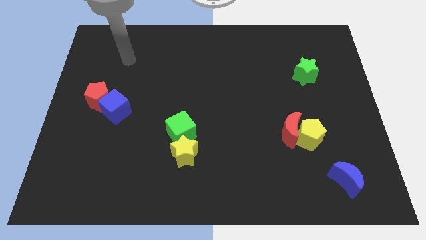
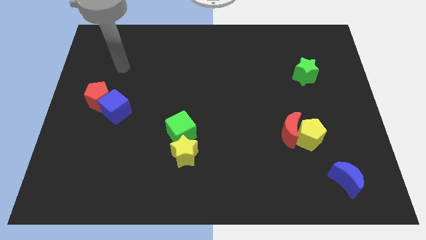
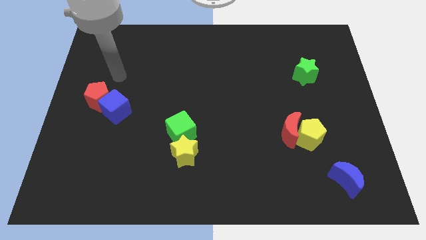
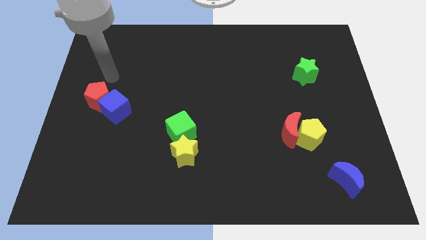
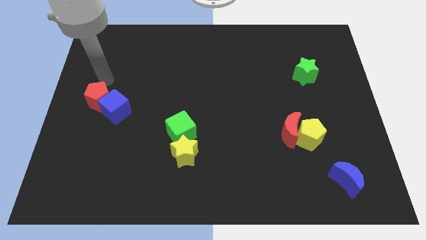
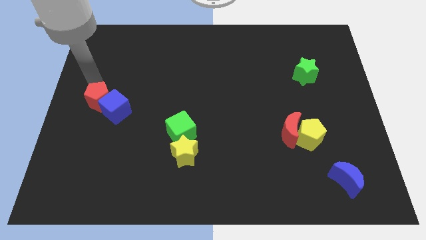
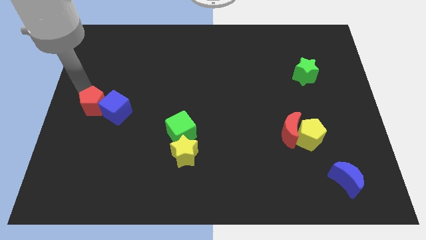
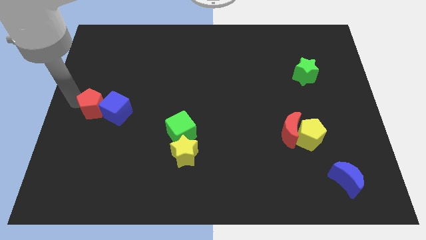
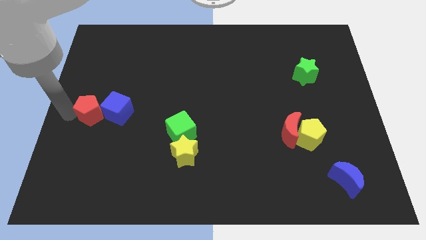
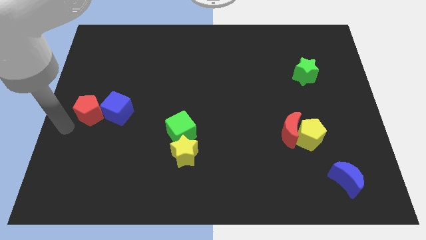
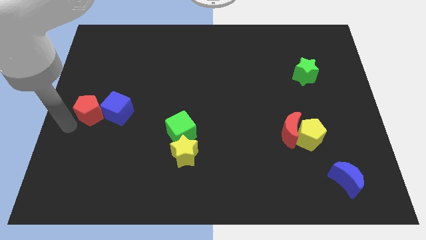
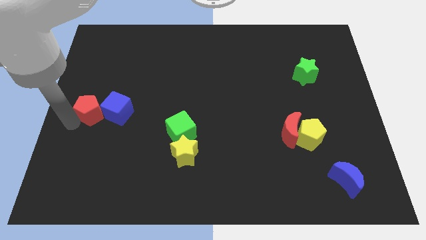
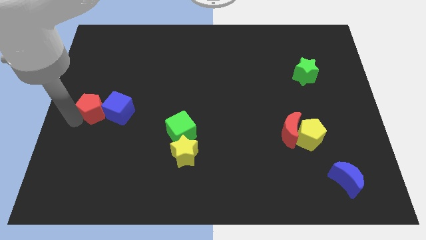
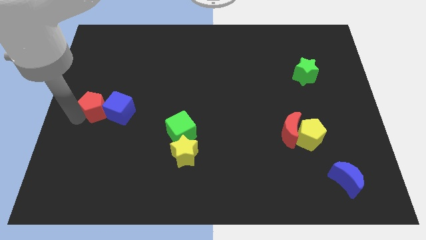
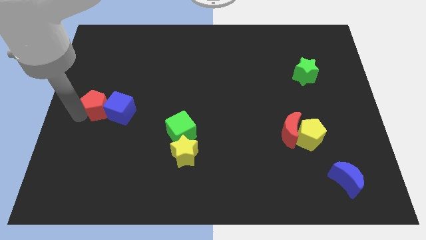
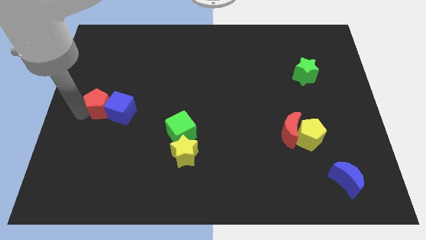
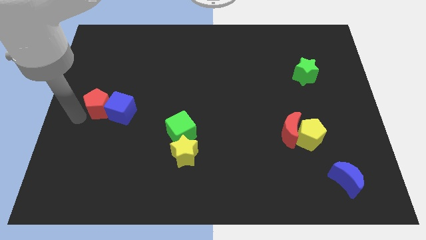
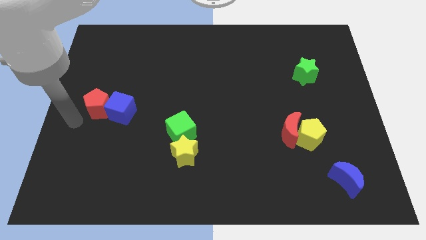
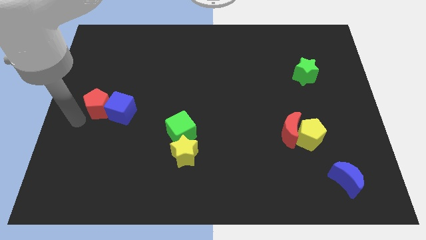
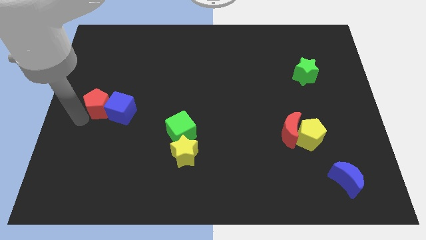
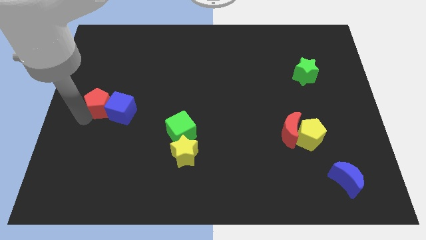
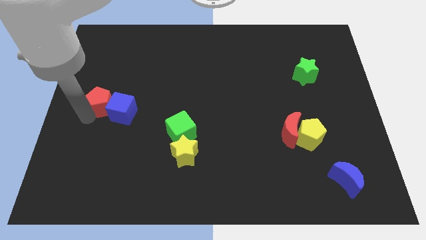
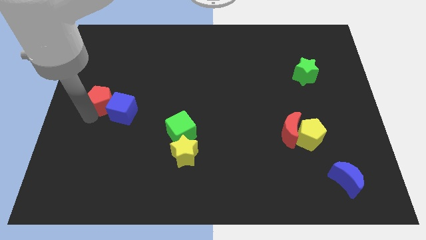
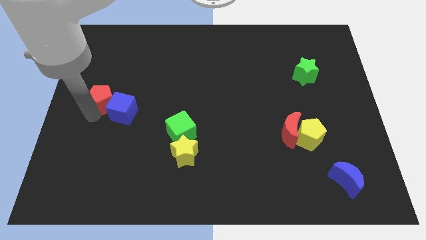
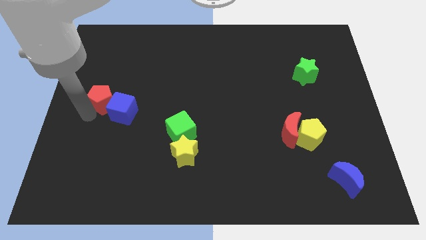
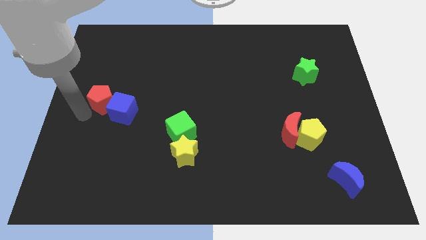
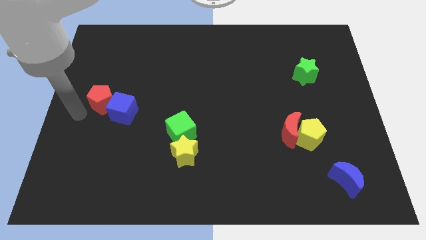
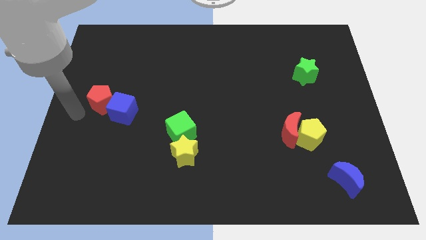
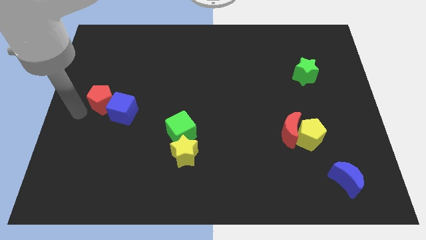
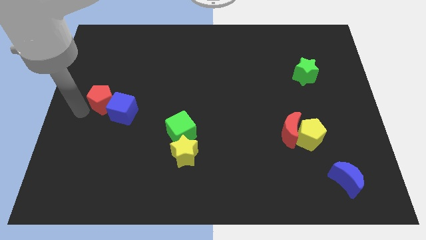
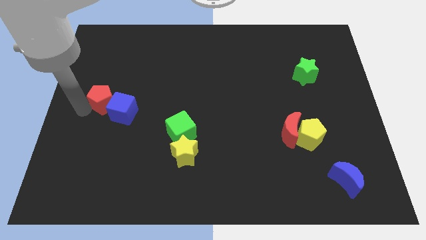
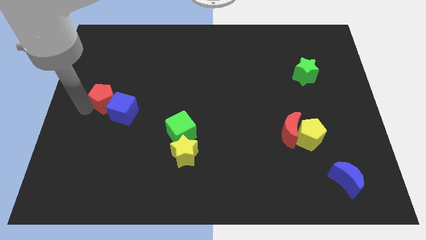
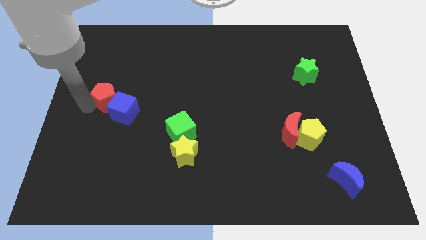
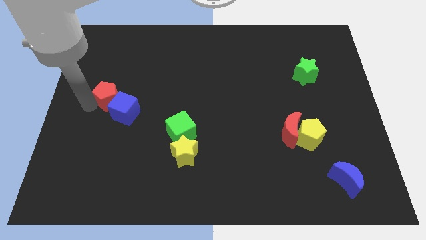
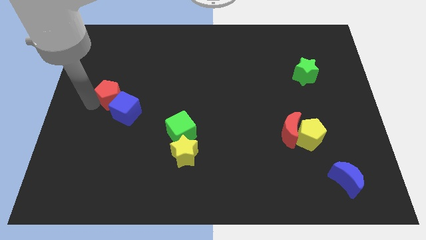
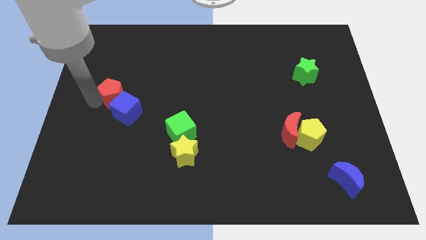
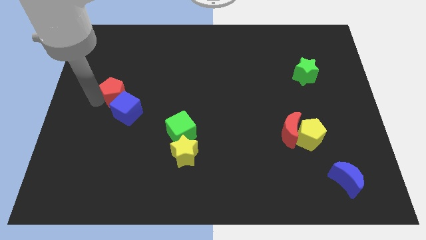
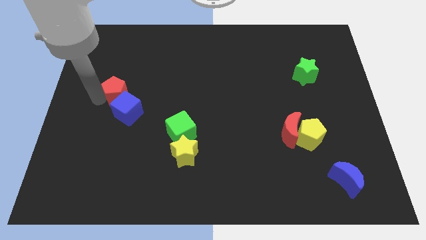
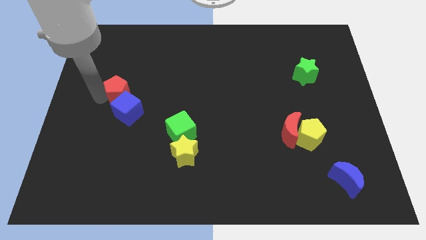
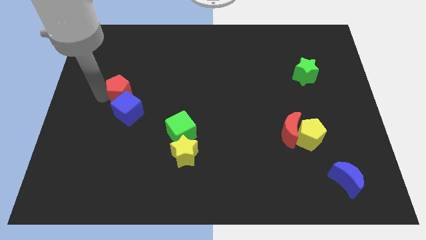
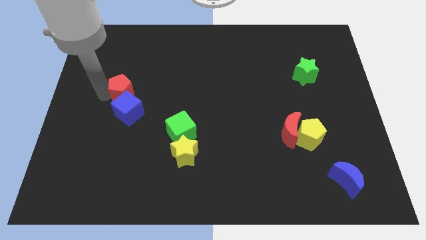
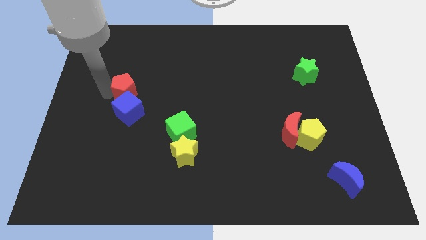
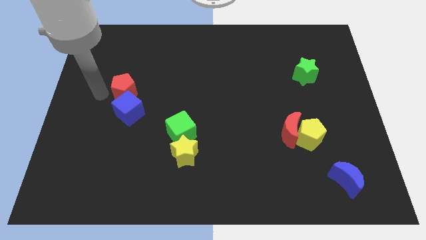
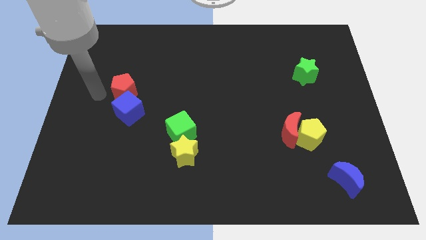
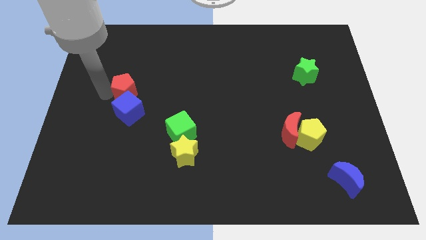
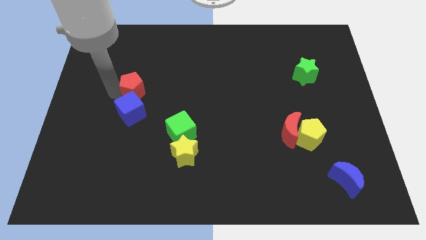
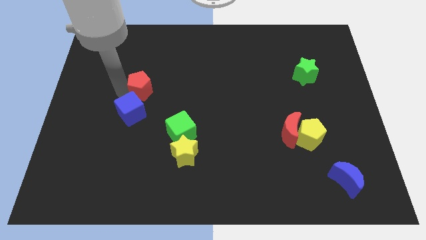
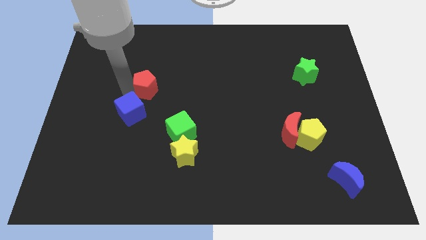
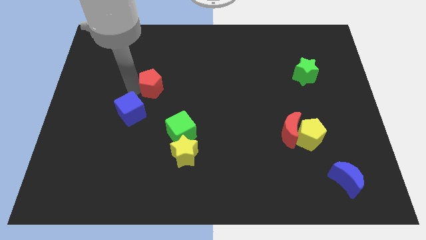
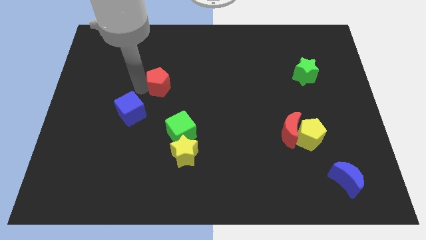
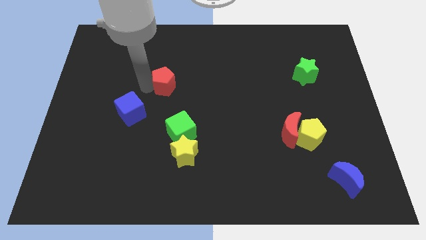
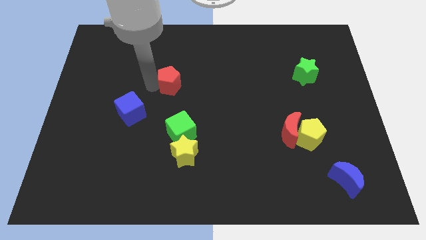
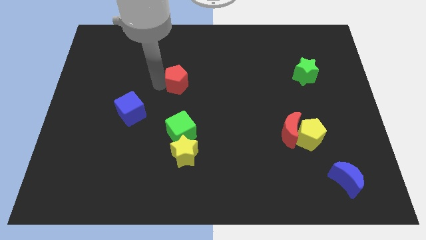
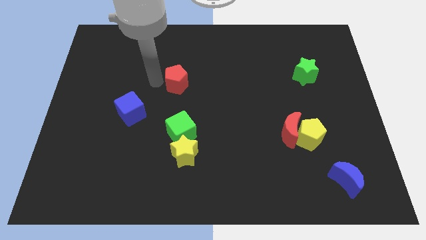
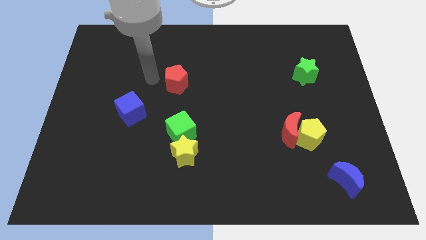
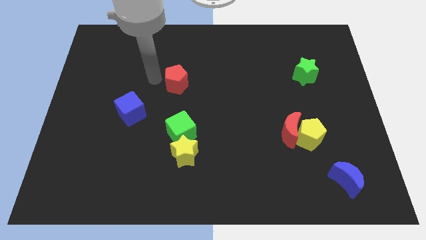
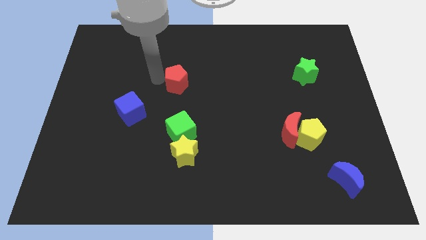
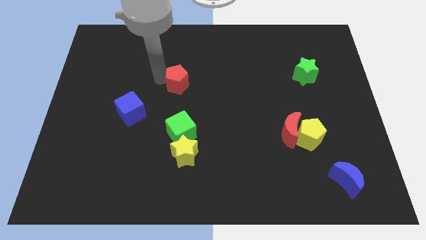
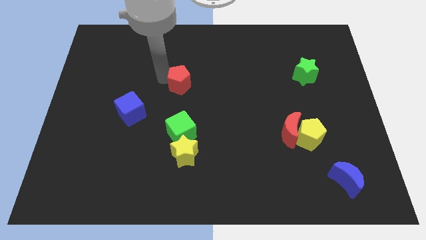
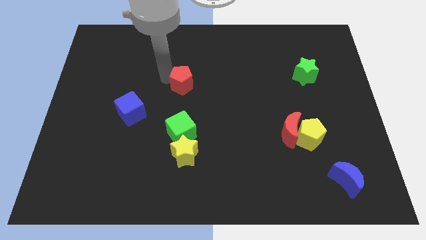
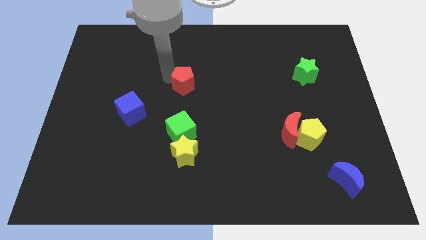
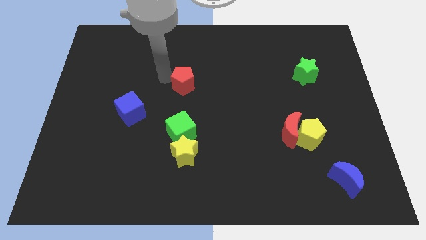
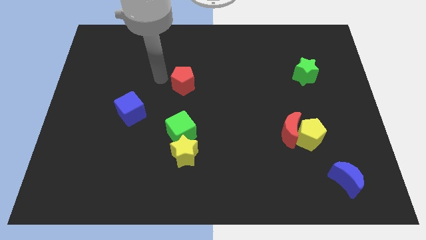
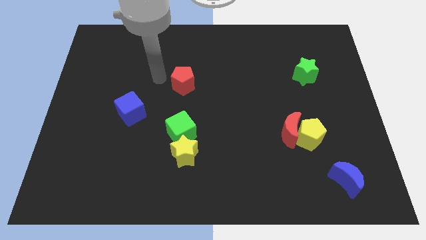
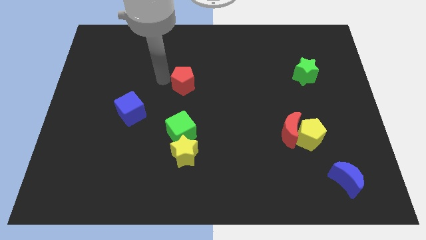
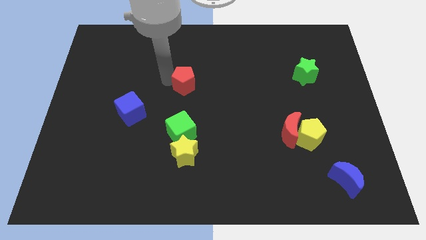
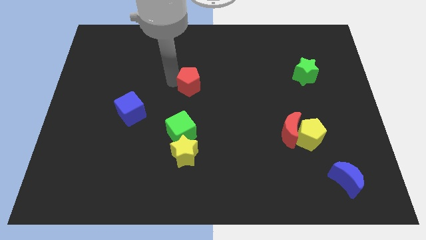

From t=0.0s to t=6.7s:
slide the red pentagon to the right

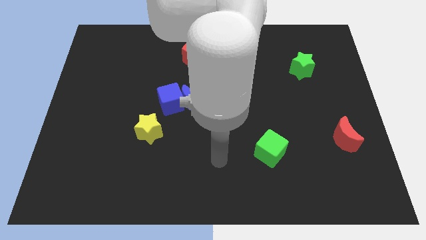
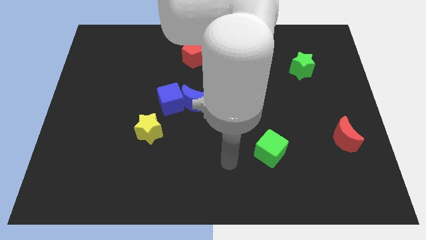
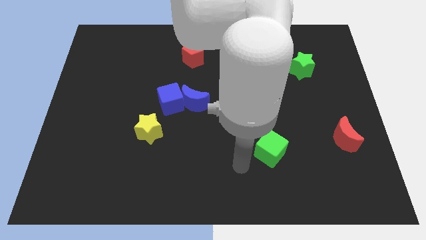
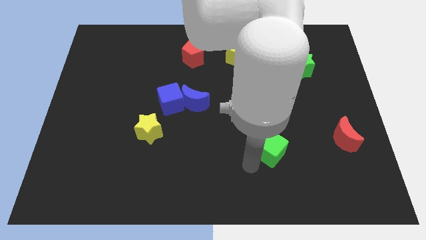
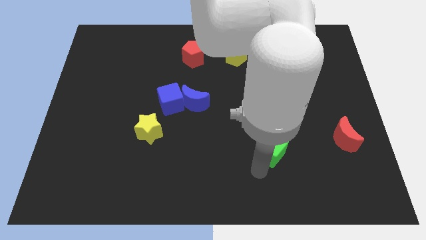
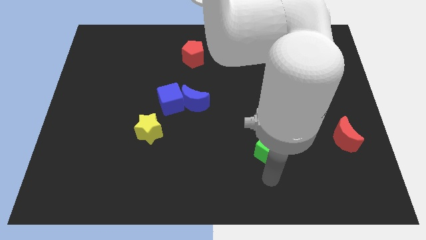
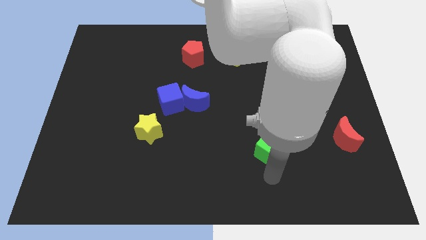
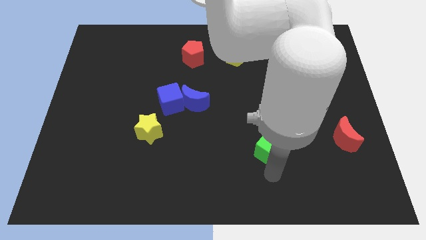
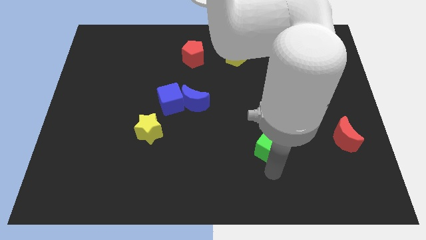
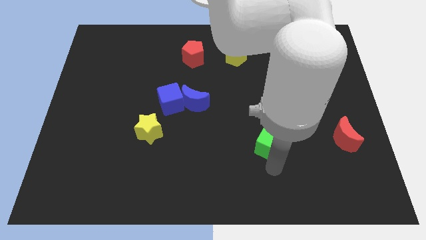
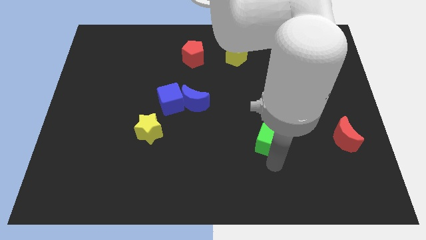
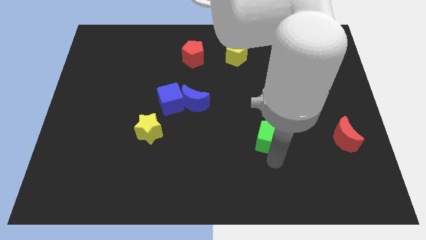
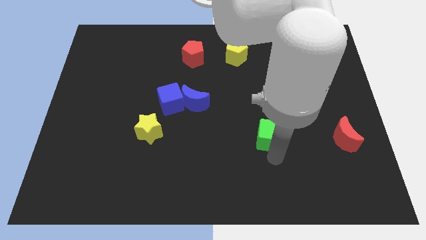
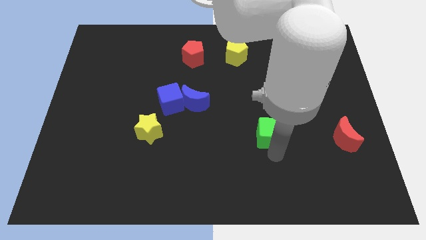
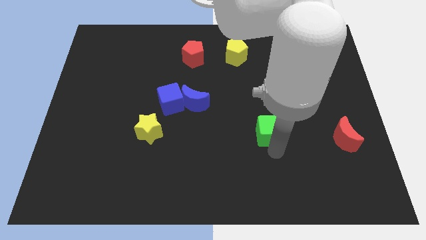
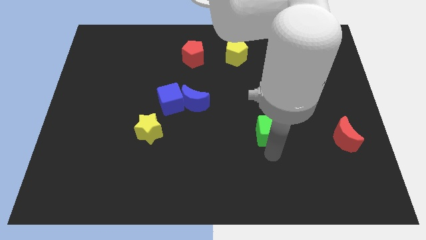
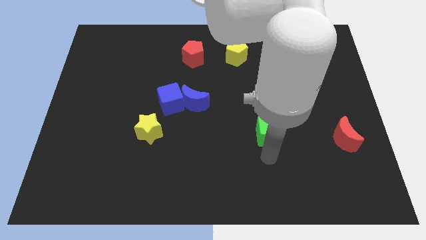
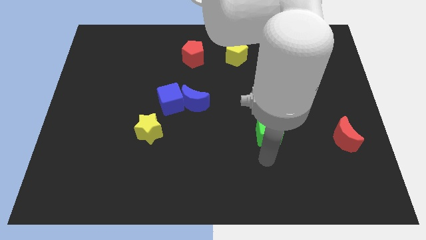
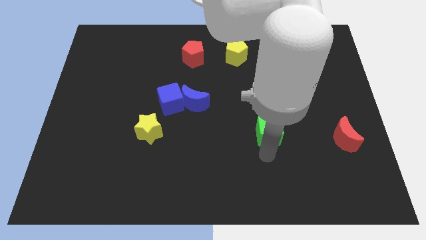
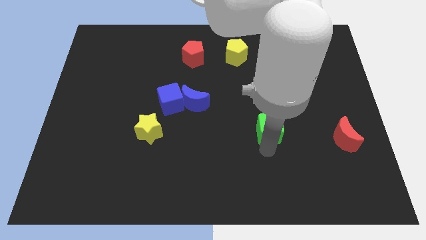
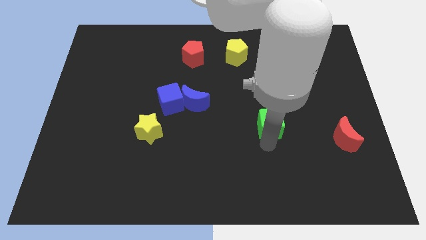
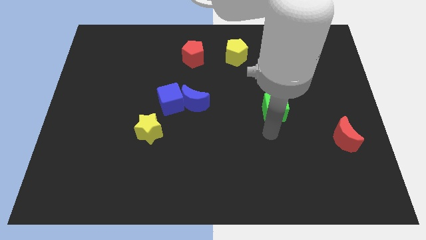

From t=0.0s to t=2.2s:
slightly slide the green cube up
